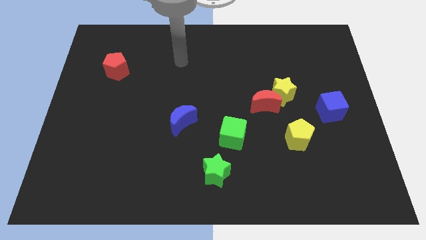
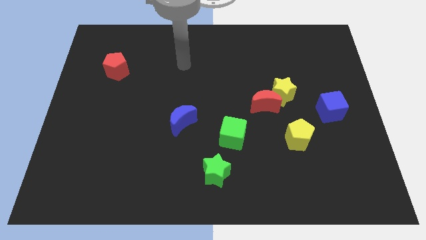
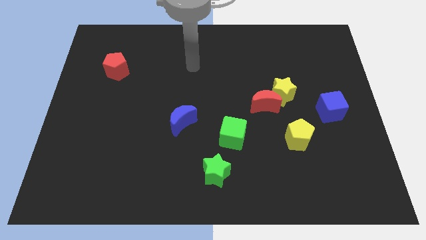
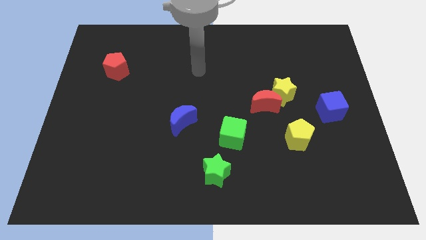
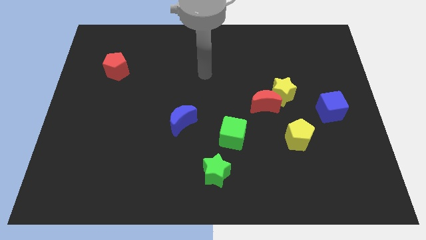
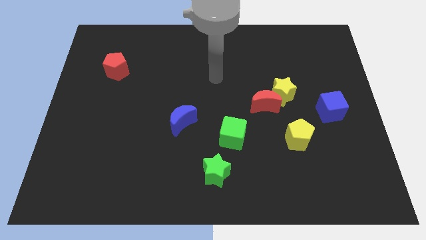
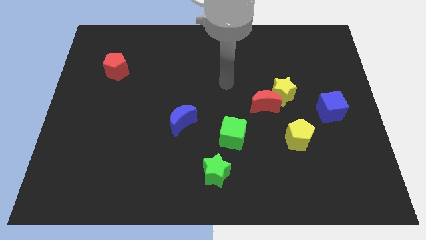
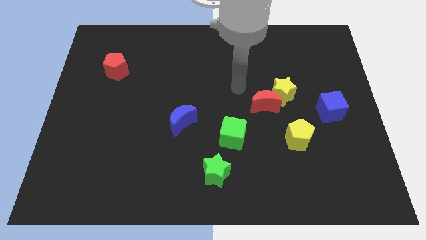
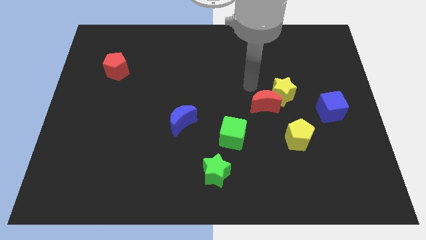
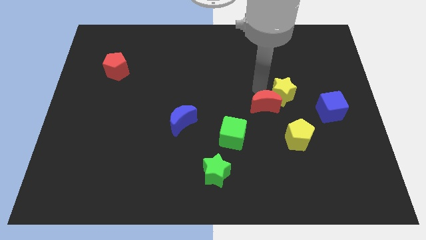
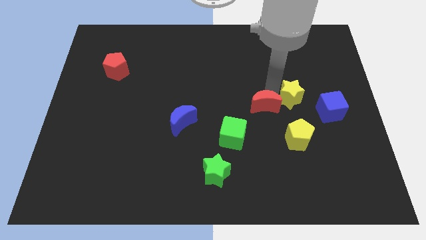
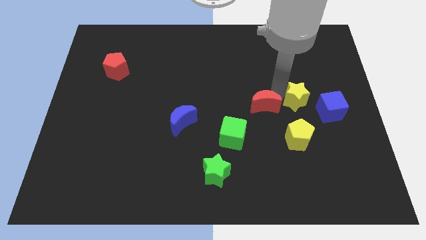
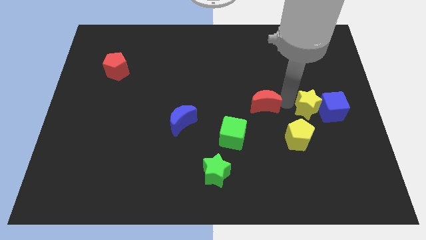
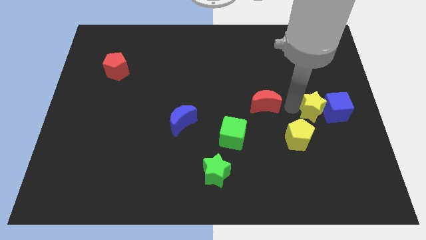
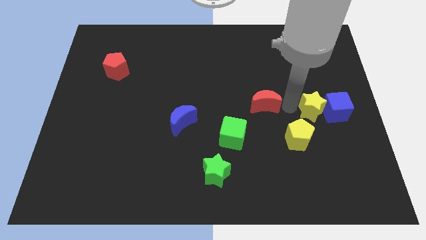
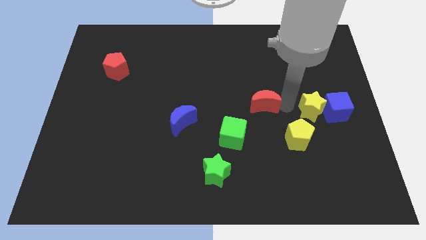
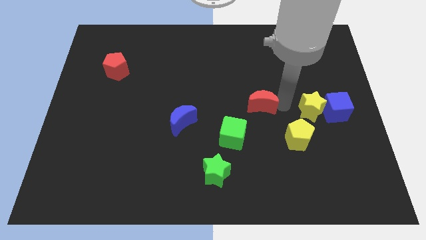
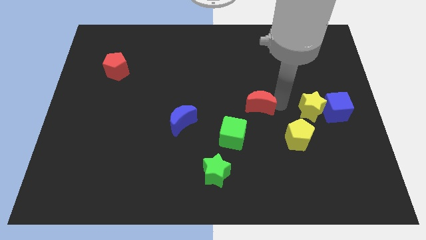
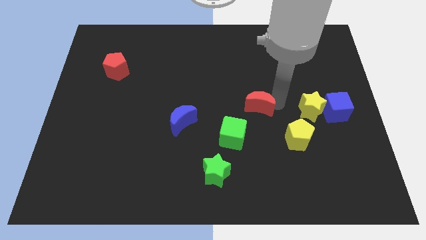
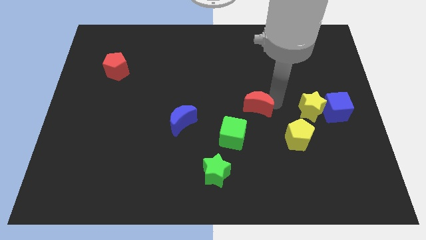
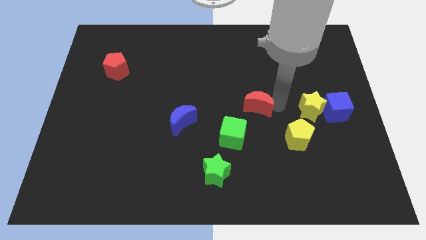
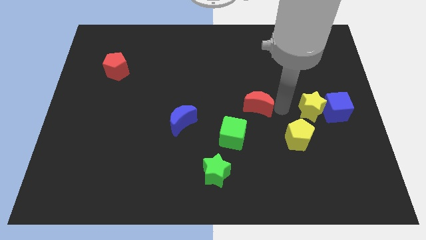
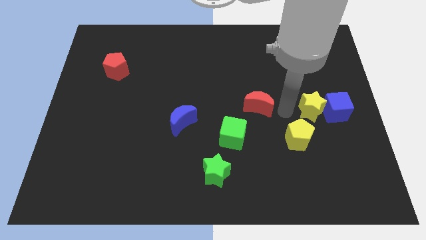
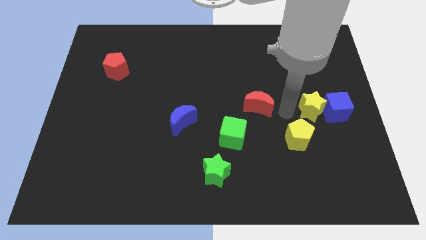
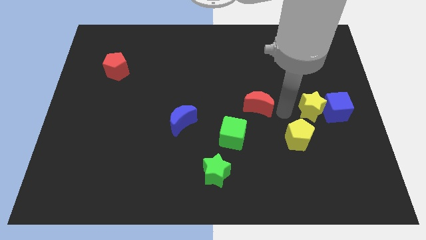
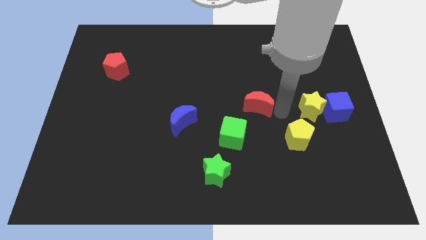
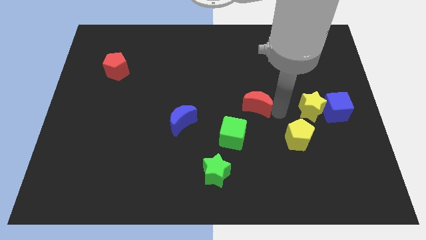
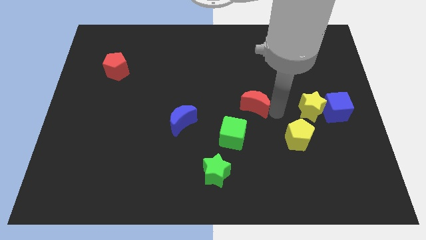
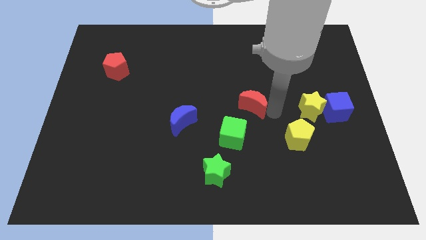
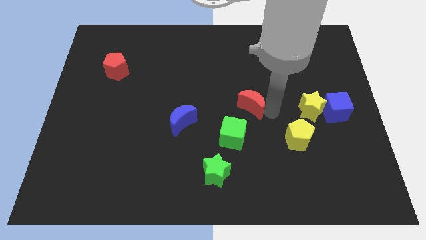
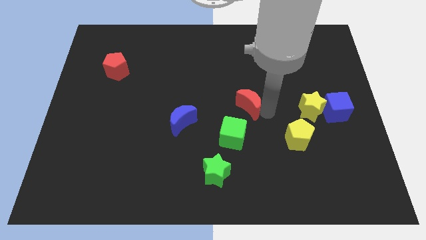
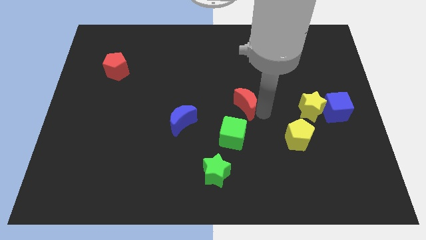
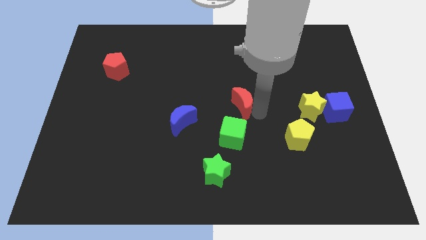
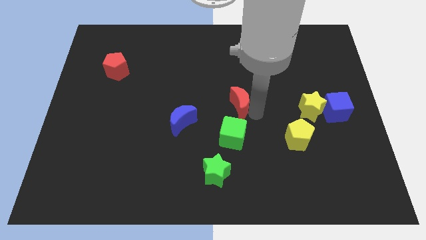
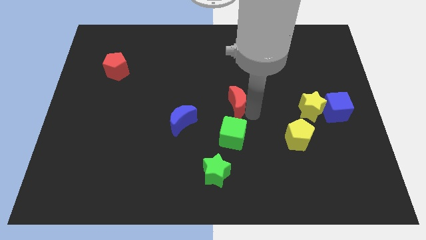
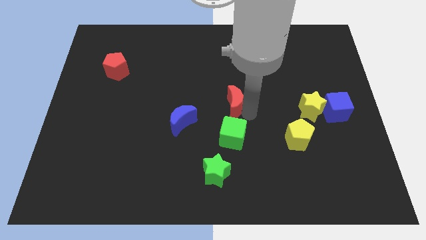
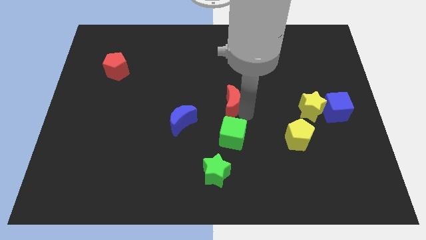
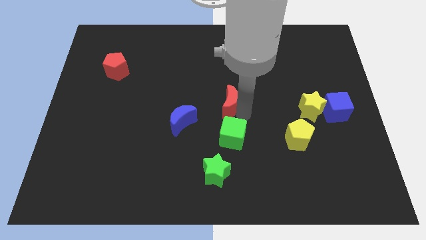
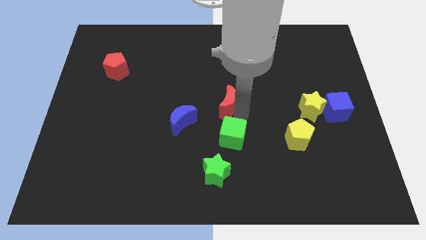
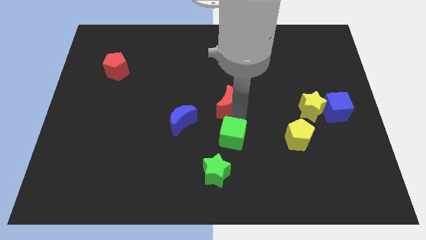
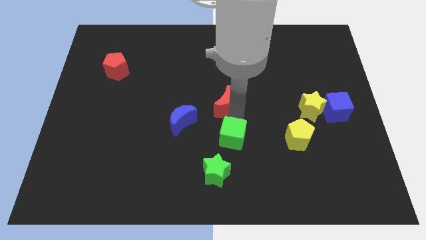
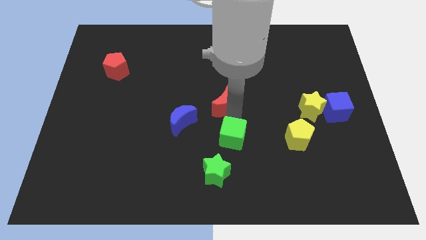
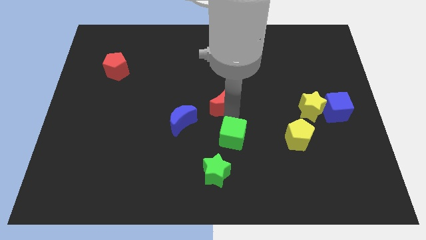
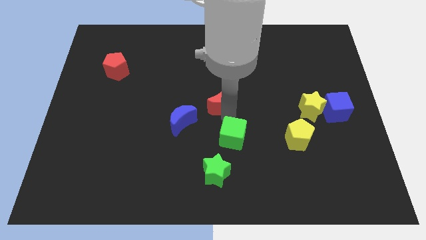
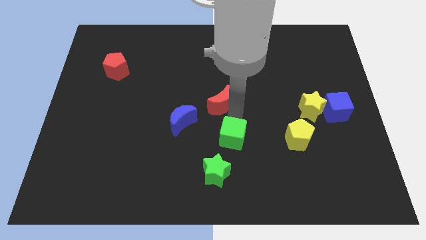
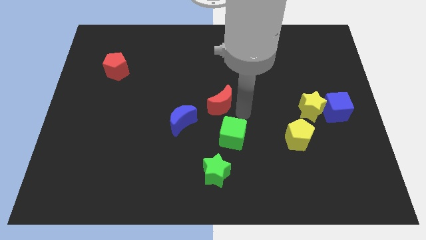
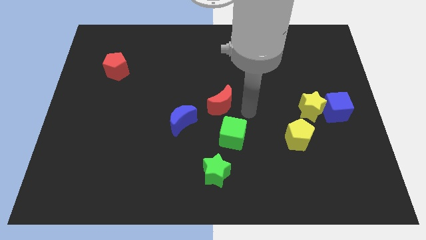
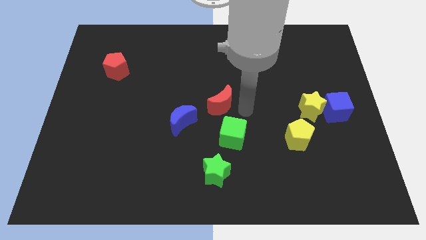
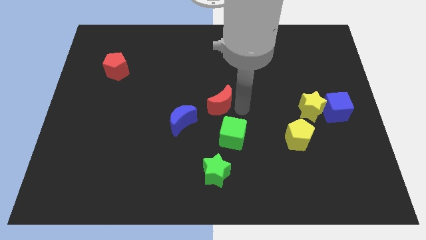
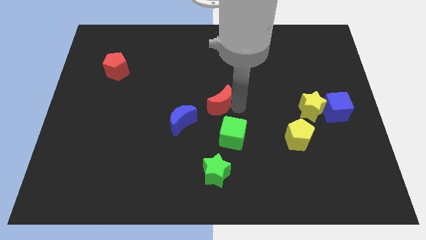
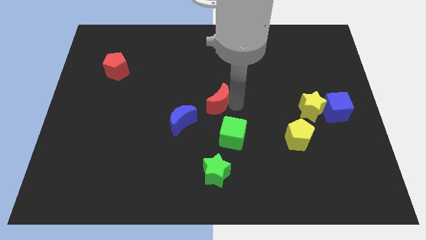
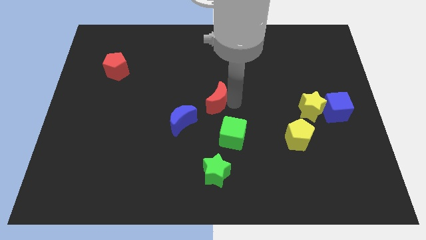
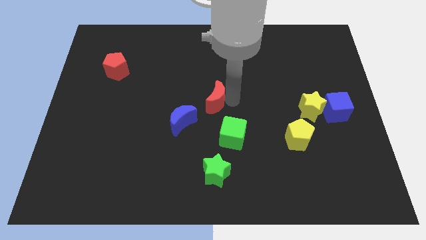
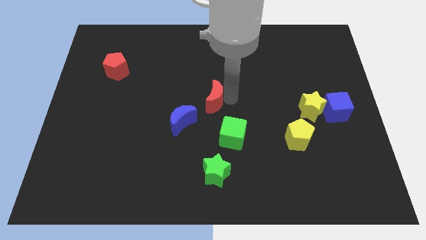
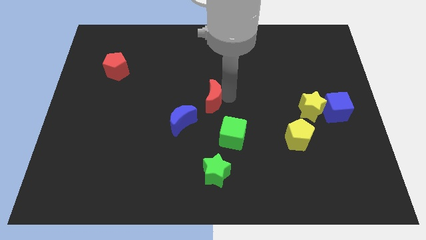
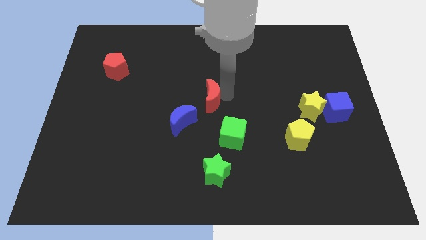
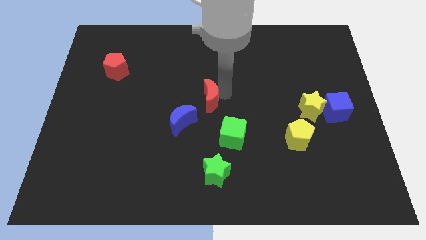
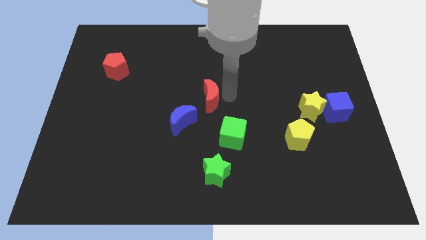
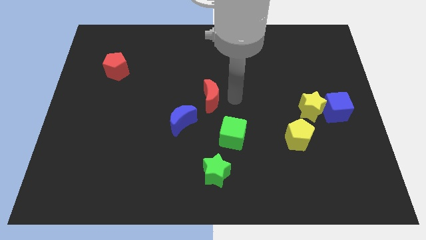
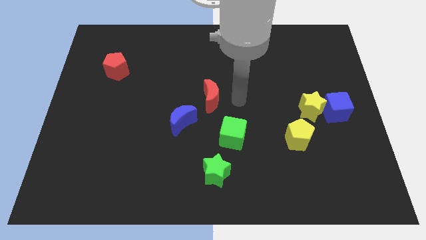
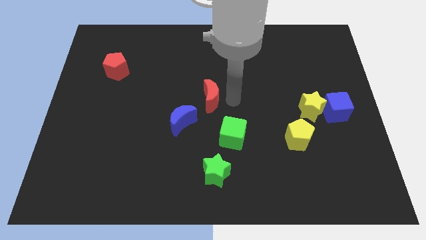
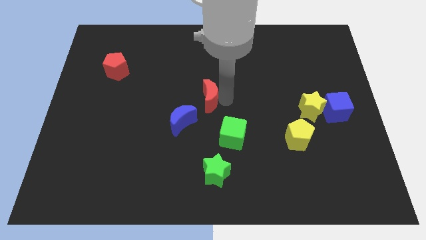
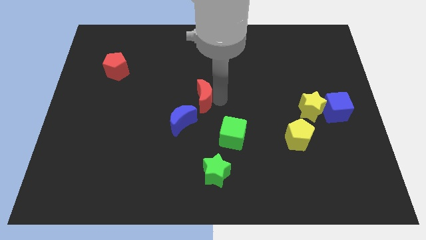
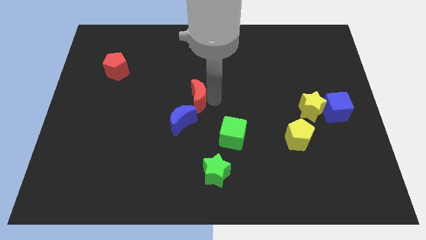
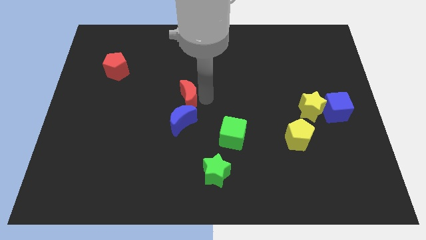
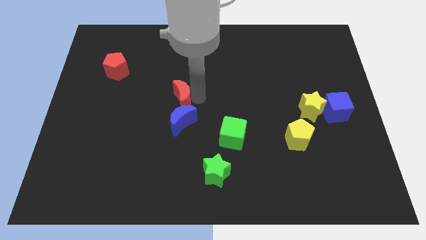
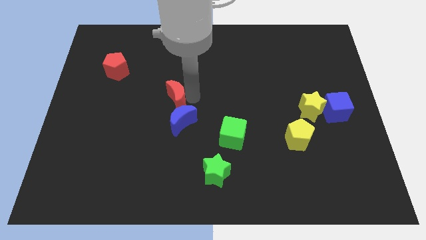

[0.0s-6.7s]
push the red moon left

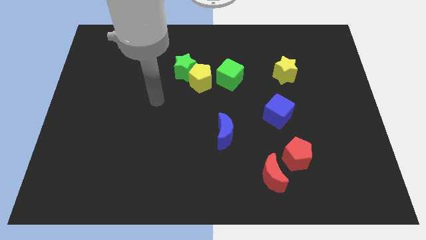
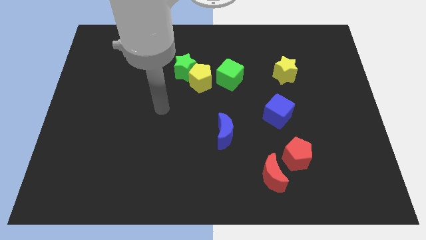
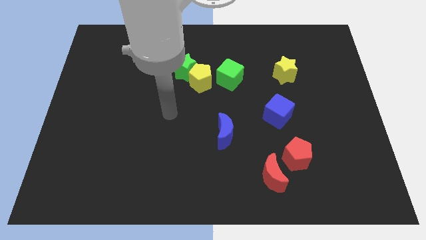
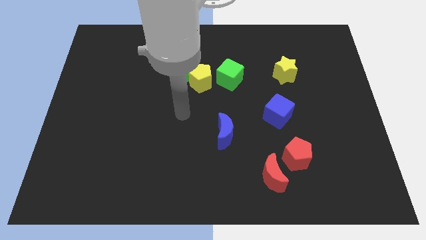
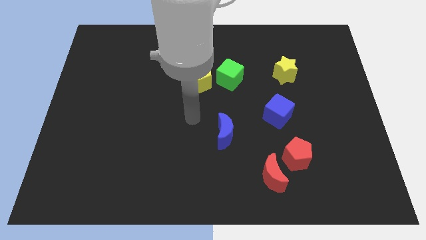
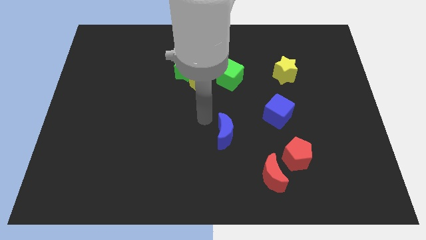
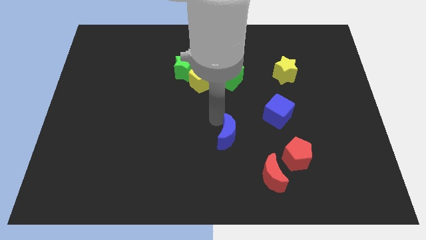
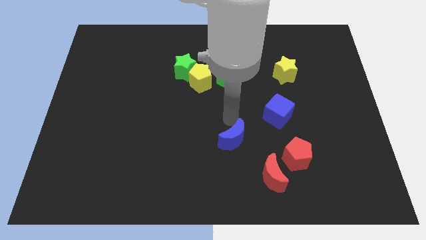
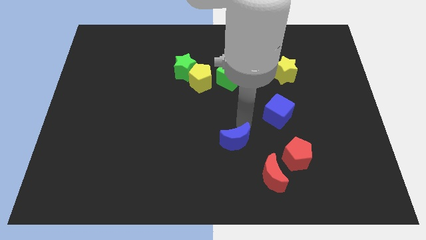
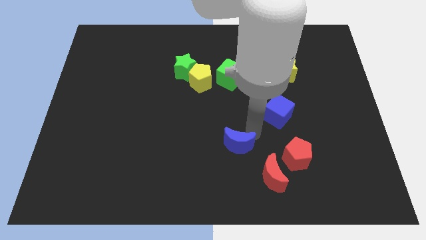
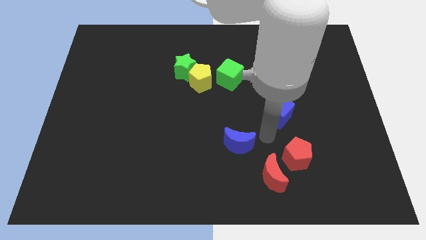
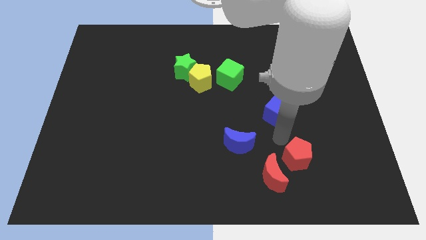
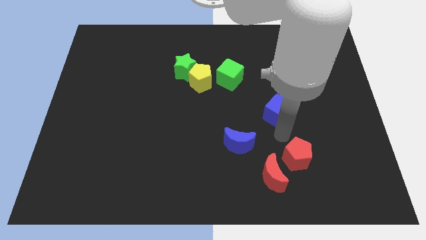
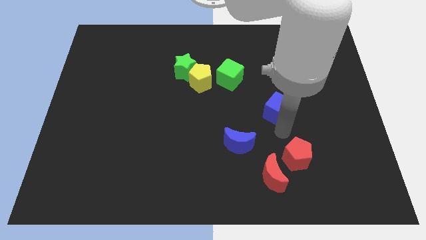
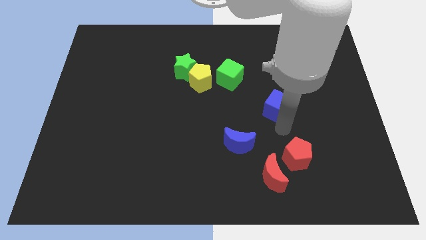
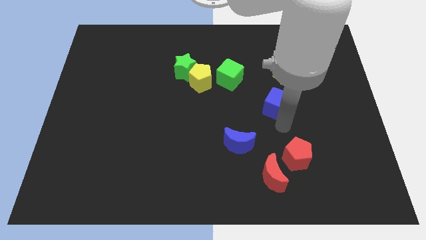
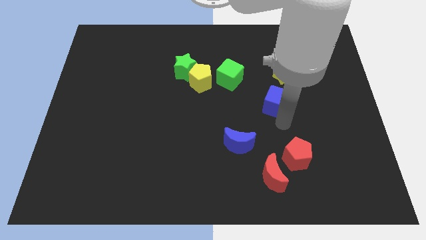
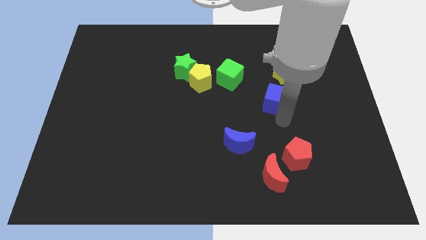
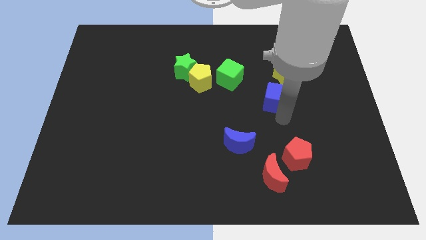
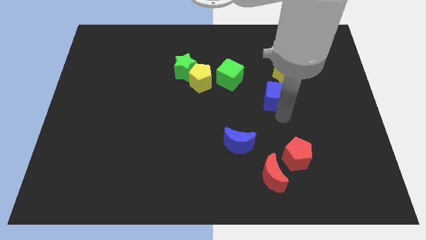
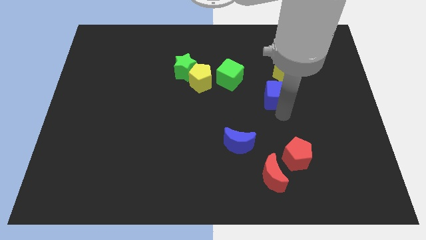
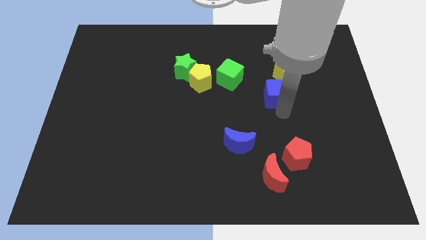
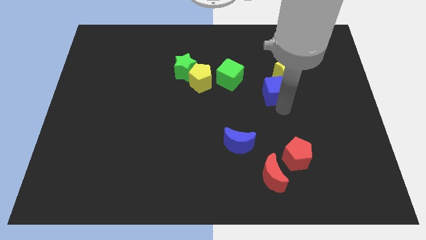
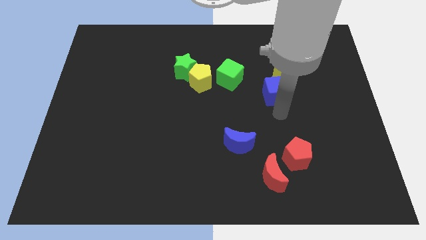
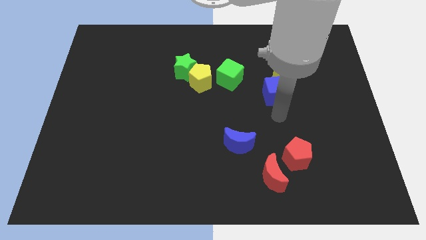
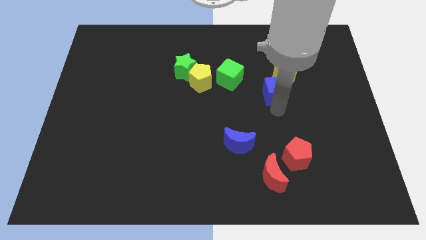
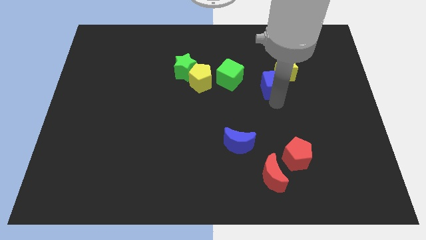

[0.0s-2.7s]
slightly slide the blue cube up
